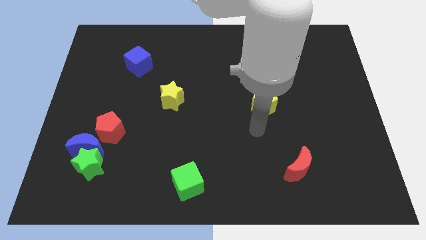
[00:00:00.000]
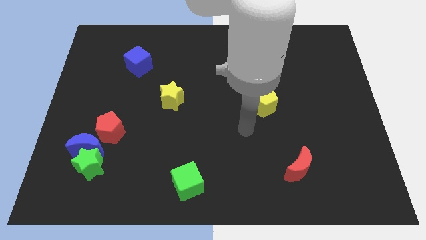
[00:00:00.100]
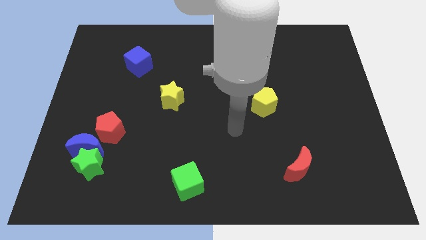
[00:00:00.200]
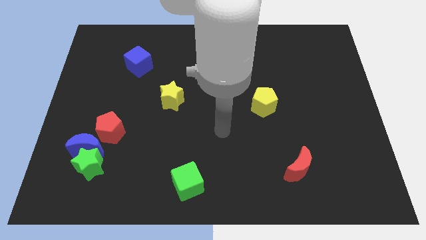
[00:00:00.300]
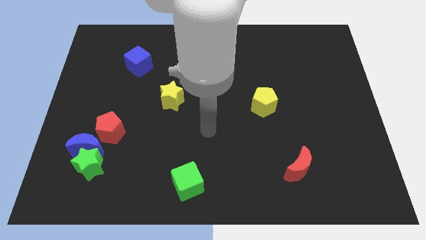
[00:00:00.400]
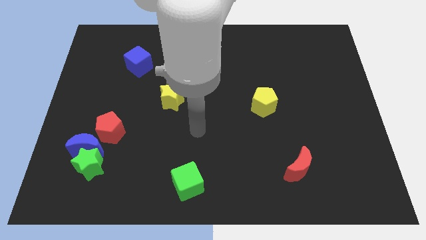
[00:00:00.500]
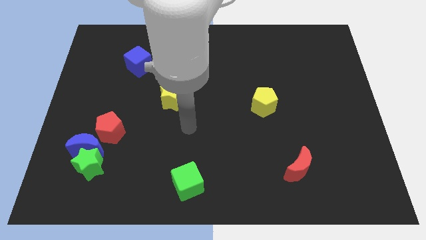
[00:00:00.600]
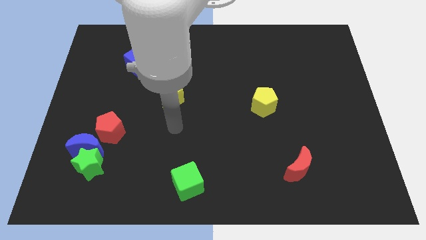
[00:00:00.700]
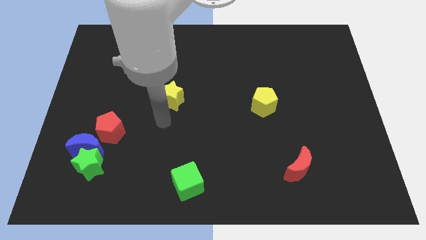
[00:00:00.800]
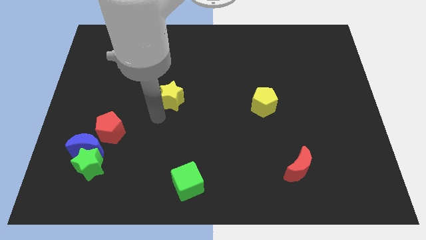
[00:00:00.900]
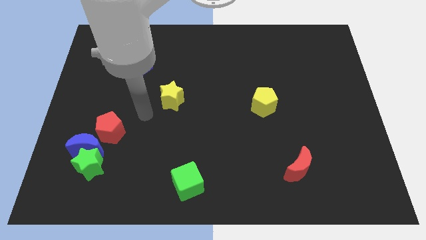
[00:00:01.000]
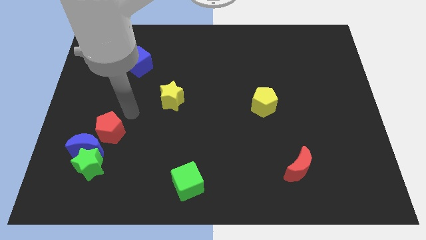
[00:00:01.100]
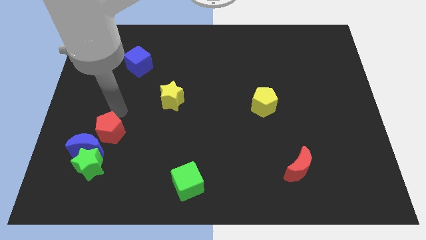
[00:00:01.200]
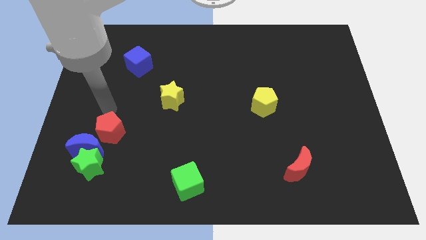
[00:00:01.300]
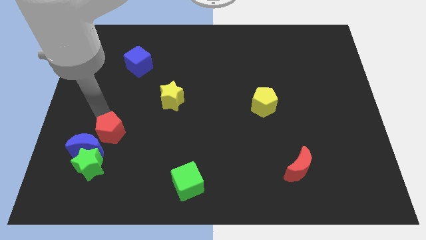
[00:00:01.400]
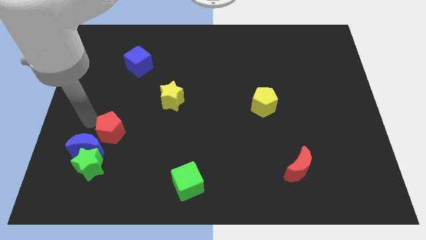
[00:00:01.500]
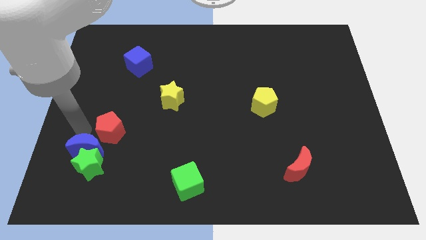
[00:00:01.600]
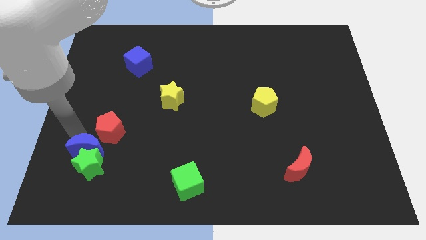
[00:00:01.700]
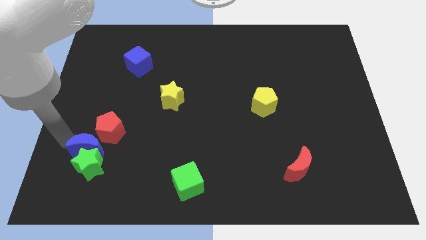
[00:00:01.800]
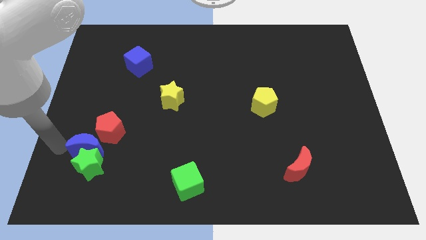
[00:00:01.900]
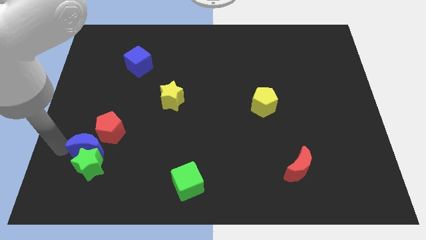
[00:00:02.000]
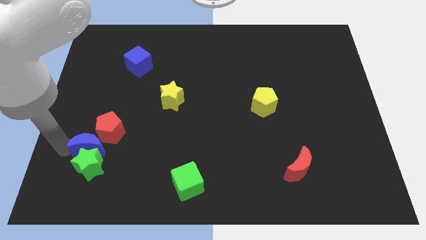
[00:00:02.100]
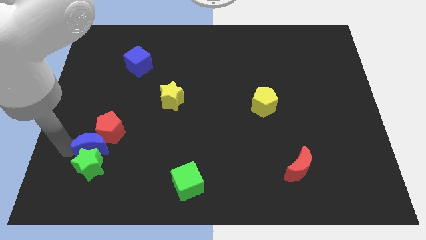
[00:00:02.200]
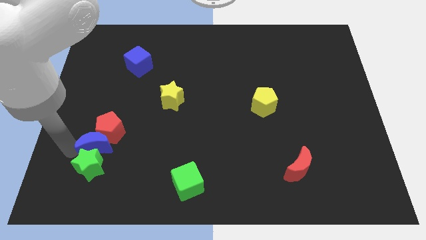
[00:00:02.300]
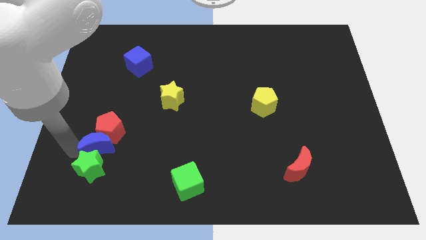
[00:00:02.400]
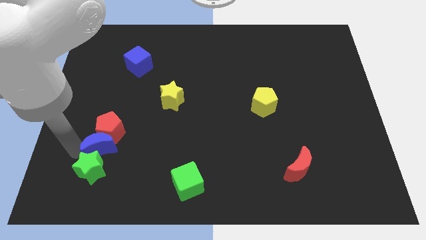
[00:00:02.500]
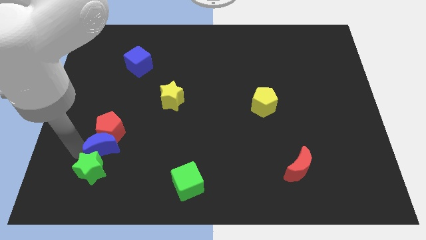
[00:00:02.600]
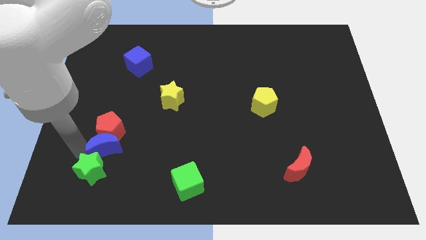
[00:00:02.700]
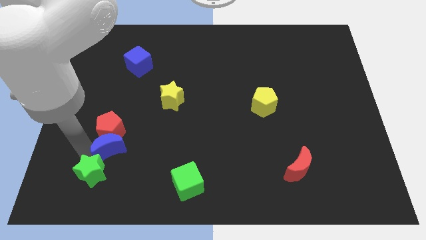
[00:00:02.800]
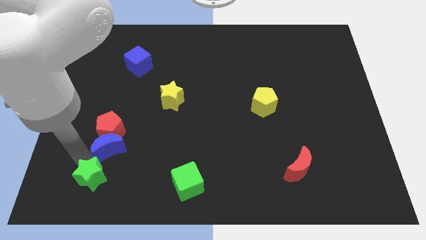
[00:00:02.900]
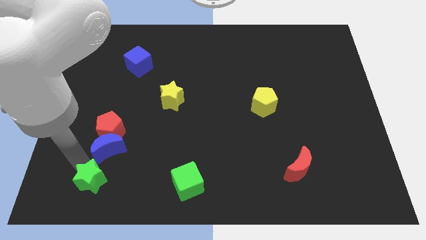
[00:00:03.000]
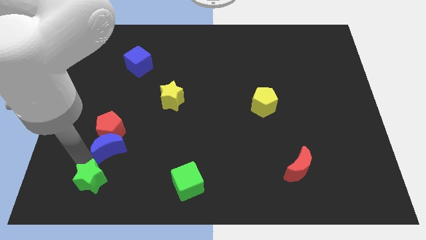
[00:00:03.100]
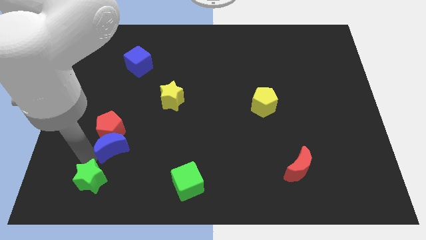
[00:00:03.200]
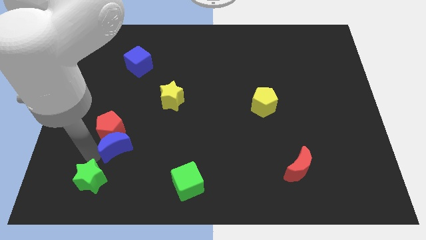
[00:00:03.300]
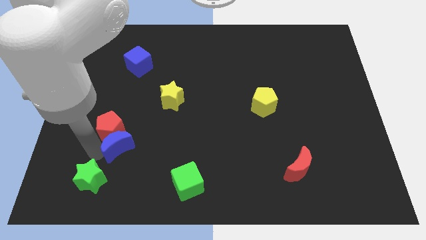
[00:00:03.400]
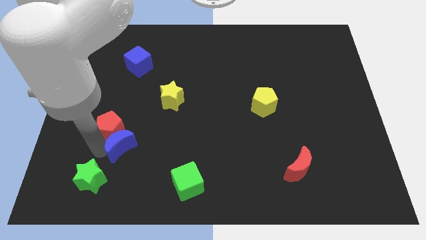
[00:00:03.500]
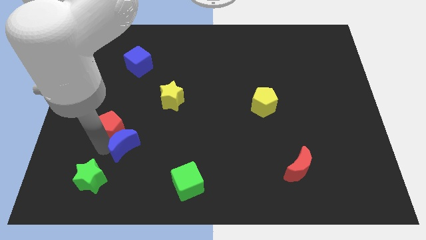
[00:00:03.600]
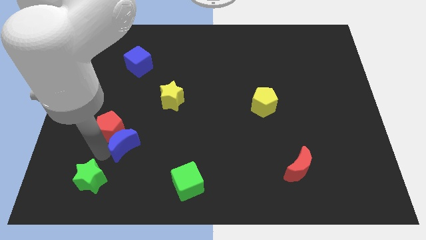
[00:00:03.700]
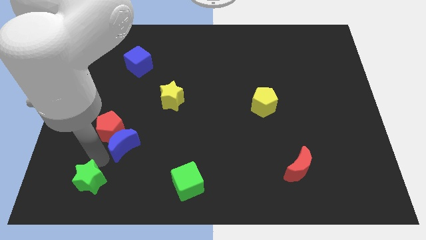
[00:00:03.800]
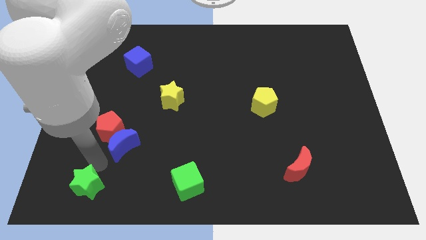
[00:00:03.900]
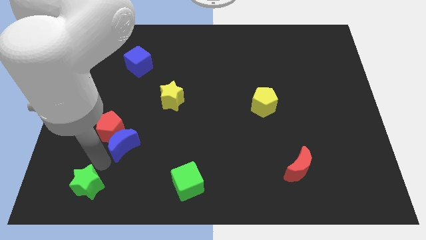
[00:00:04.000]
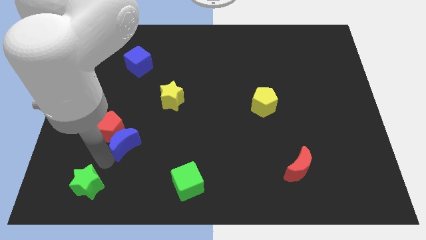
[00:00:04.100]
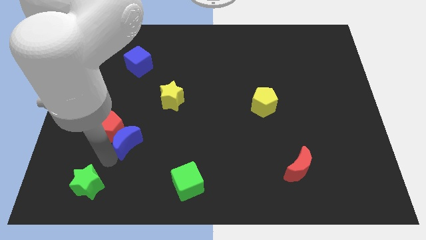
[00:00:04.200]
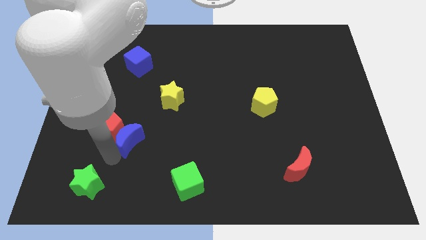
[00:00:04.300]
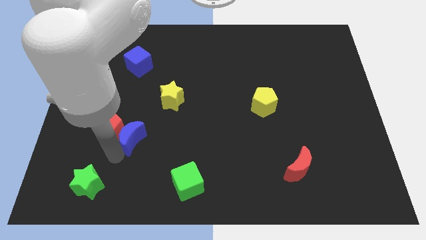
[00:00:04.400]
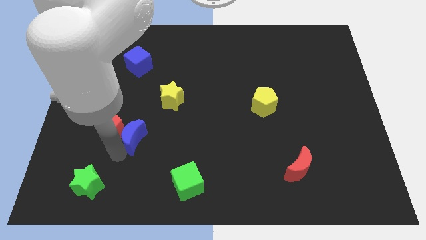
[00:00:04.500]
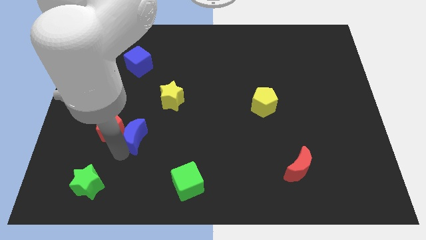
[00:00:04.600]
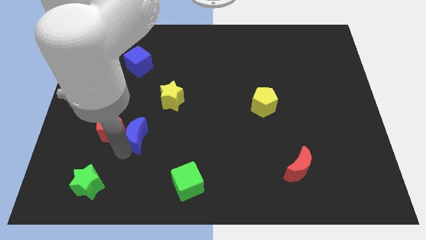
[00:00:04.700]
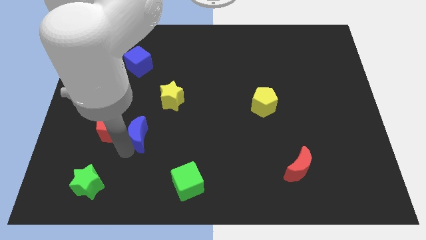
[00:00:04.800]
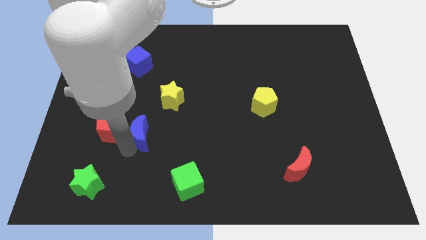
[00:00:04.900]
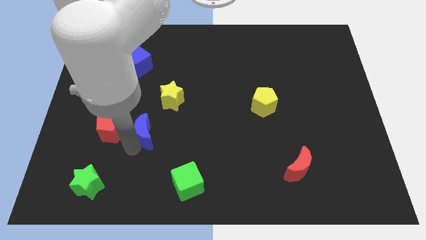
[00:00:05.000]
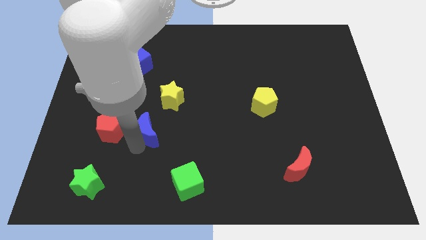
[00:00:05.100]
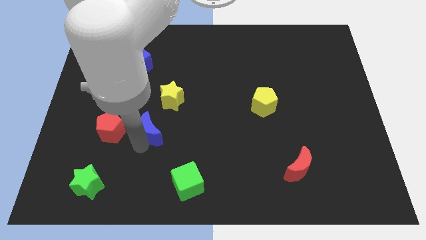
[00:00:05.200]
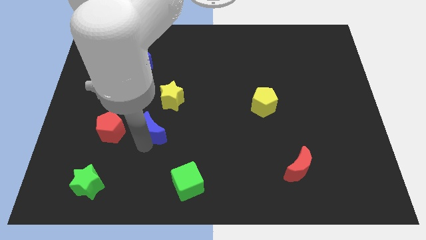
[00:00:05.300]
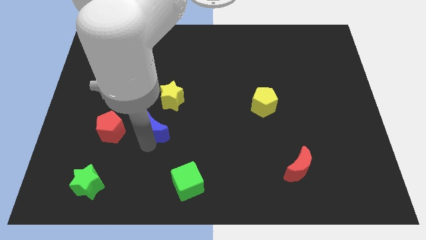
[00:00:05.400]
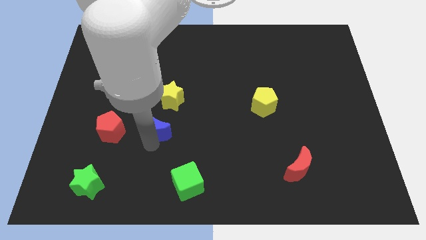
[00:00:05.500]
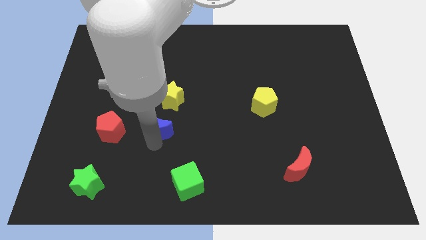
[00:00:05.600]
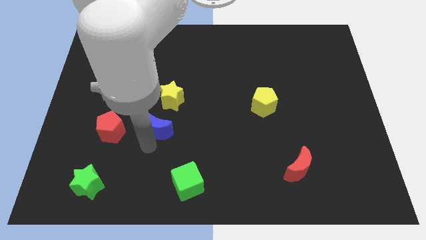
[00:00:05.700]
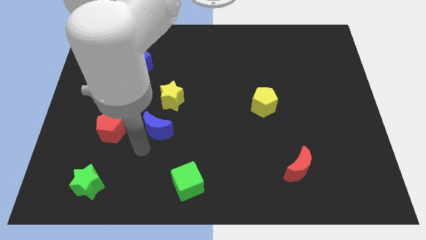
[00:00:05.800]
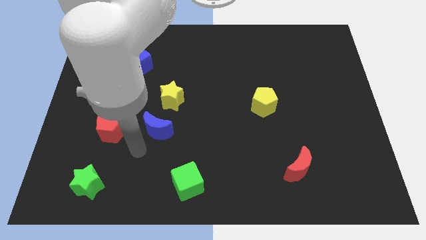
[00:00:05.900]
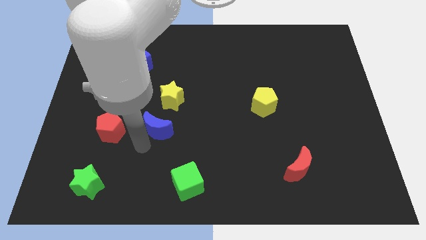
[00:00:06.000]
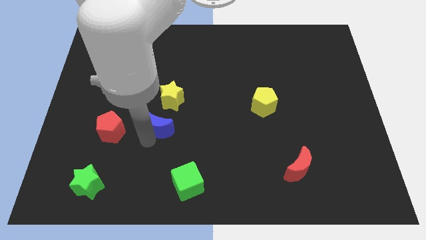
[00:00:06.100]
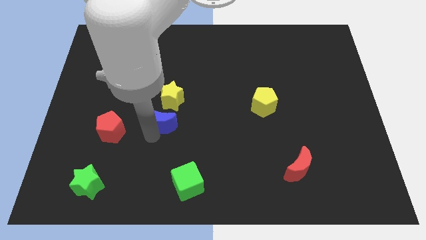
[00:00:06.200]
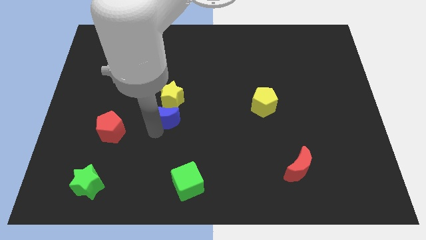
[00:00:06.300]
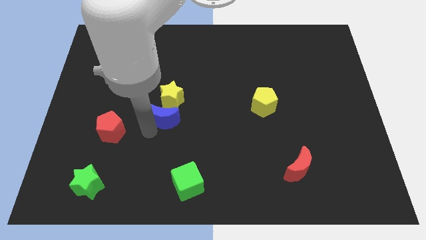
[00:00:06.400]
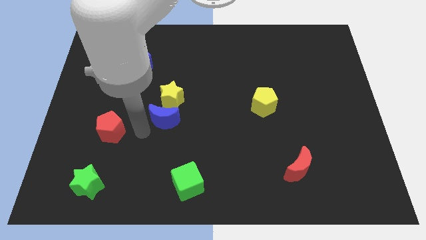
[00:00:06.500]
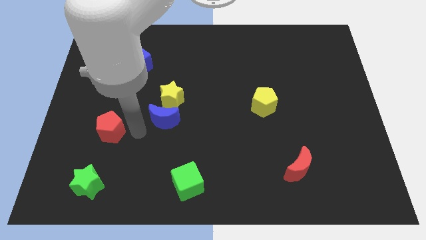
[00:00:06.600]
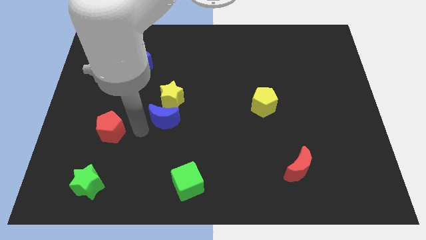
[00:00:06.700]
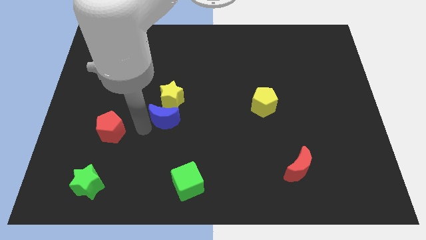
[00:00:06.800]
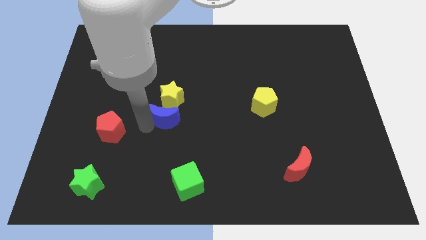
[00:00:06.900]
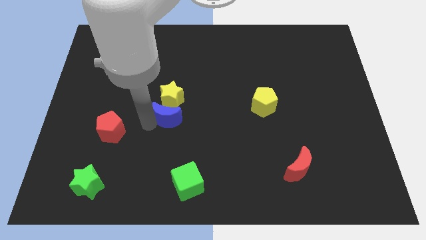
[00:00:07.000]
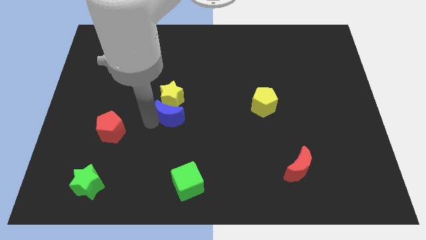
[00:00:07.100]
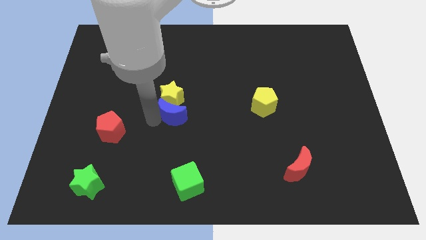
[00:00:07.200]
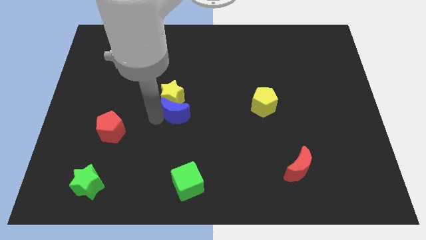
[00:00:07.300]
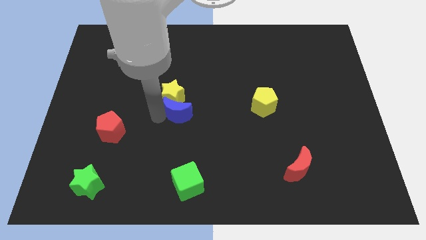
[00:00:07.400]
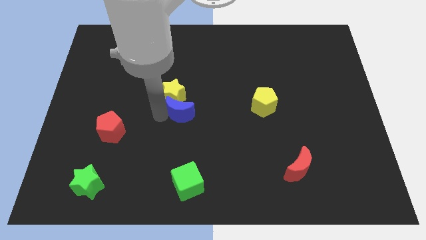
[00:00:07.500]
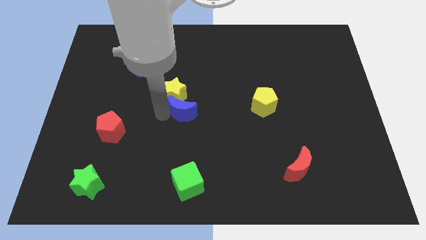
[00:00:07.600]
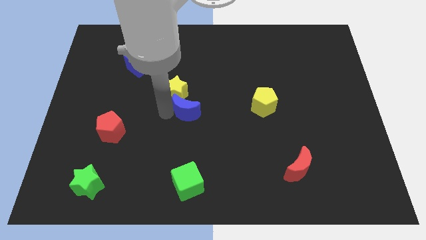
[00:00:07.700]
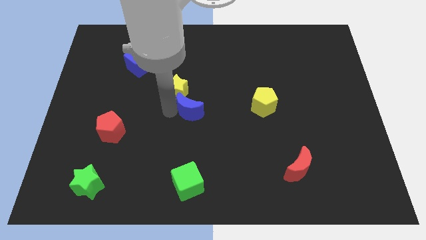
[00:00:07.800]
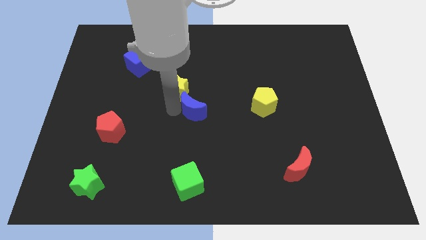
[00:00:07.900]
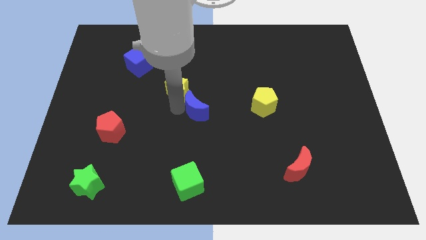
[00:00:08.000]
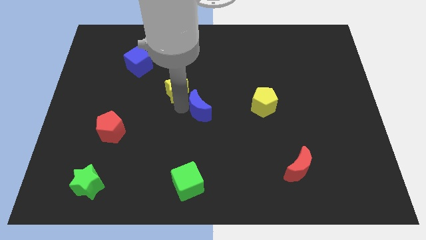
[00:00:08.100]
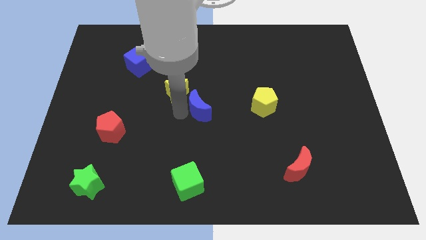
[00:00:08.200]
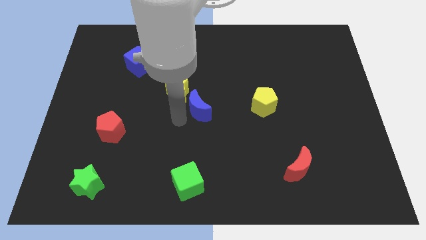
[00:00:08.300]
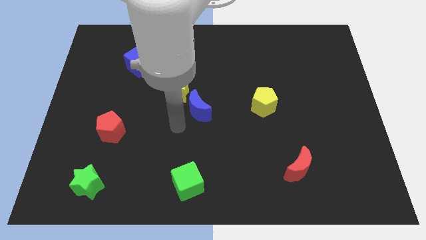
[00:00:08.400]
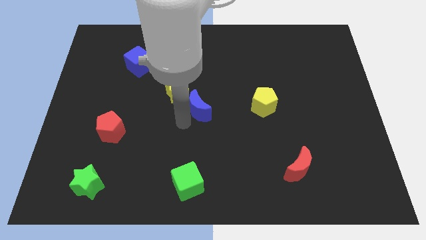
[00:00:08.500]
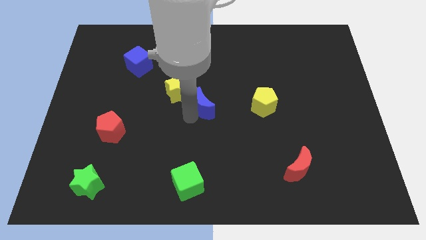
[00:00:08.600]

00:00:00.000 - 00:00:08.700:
move the blue moon just right of the yellow star
